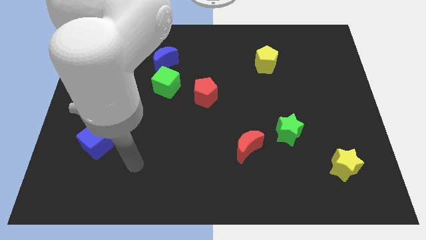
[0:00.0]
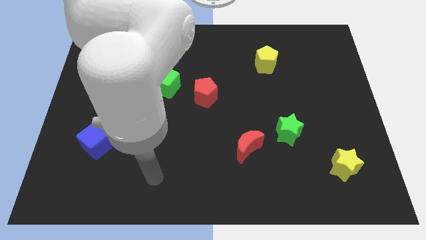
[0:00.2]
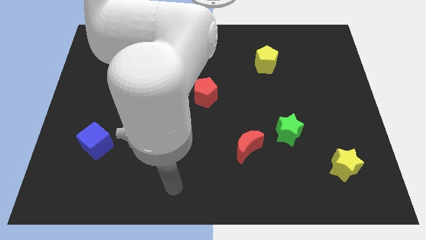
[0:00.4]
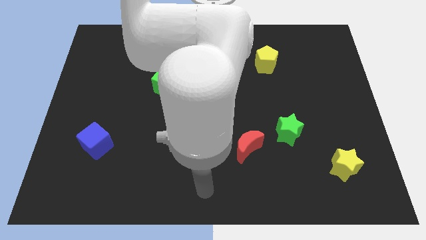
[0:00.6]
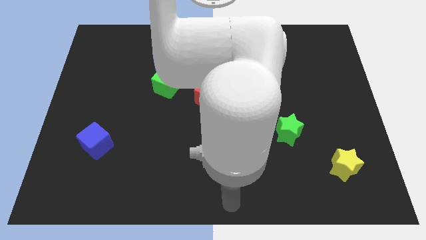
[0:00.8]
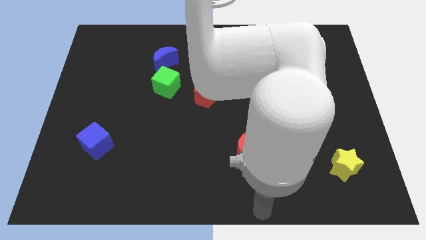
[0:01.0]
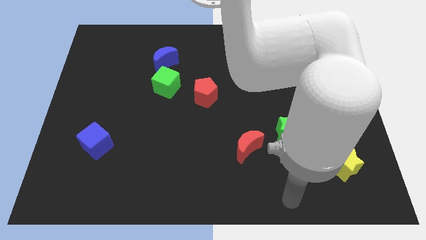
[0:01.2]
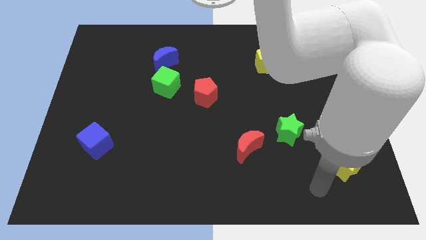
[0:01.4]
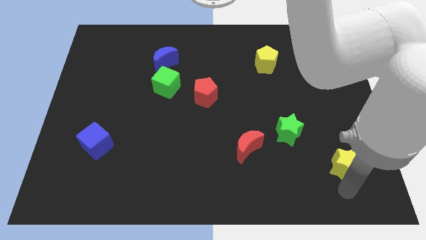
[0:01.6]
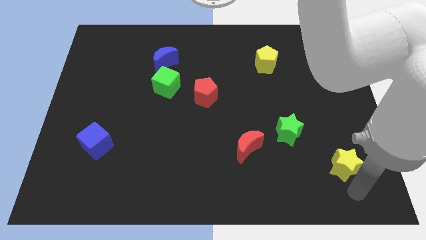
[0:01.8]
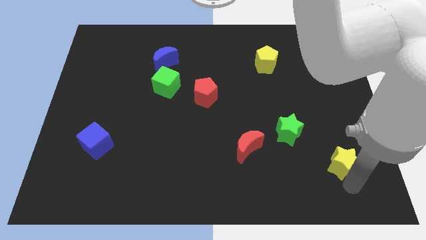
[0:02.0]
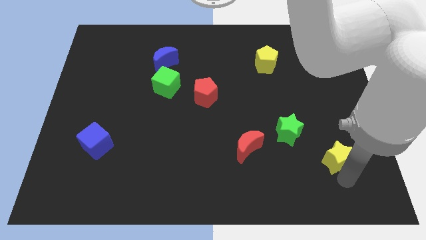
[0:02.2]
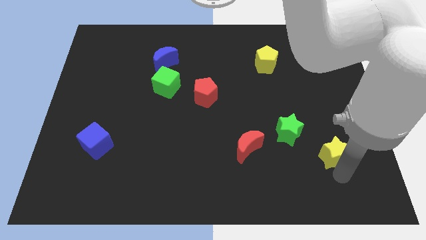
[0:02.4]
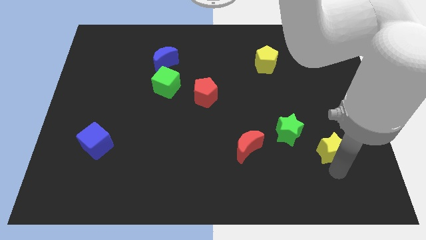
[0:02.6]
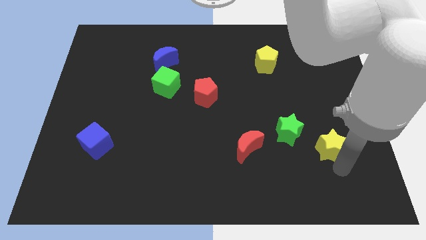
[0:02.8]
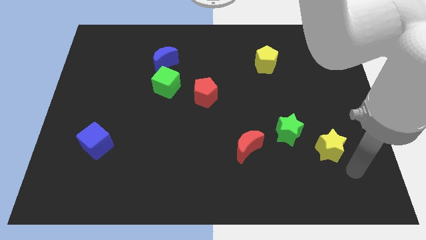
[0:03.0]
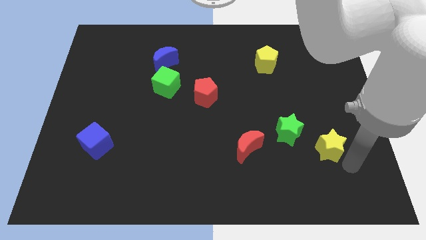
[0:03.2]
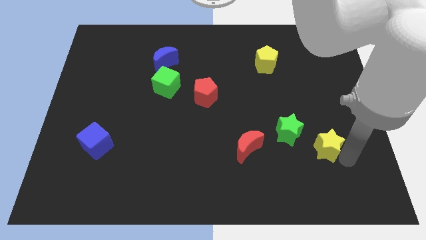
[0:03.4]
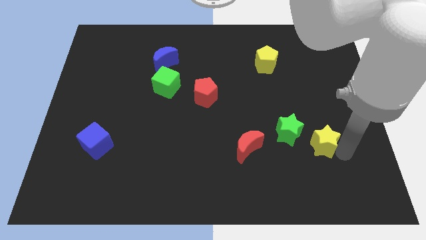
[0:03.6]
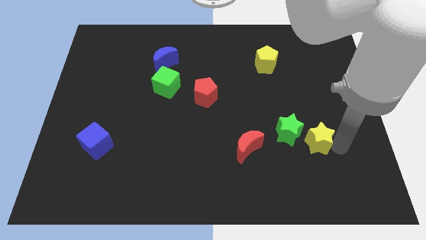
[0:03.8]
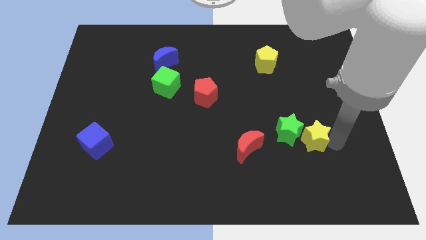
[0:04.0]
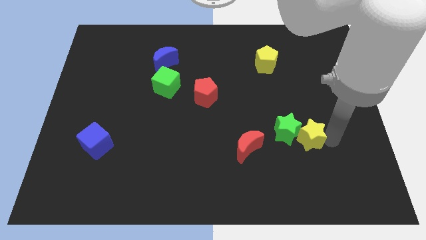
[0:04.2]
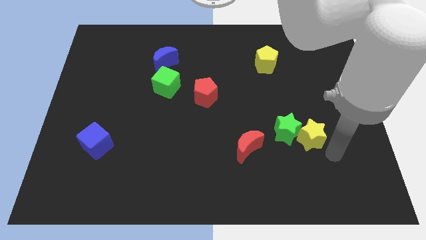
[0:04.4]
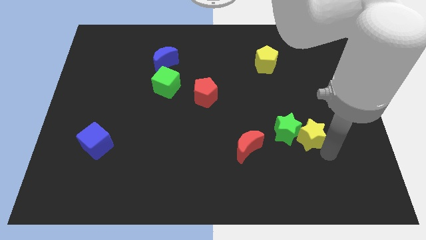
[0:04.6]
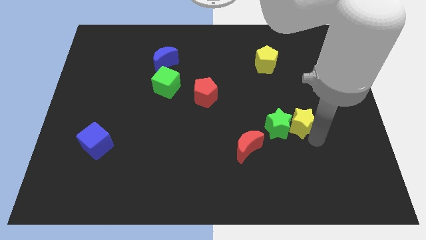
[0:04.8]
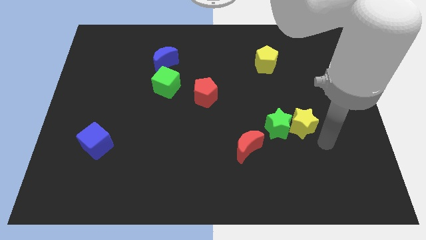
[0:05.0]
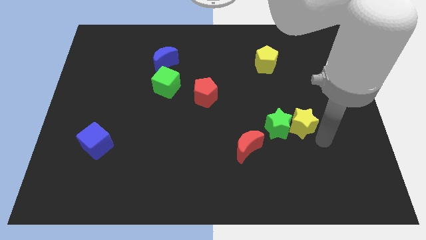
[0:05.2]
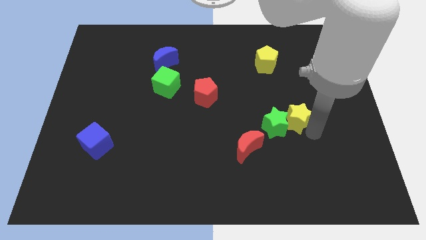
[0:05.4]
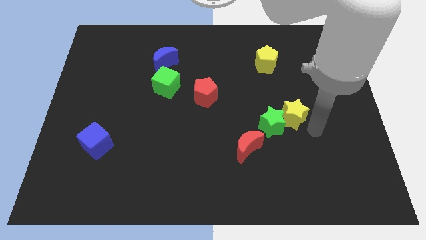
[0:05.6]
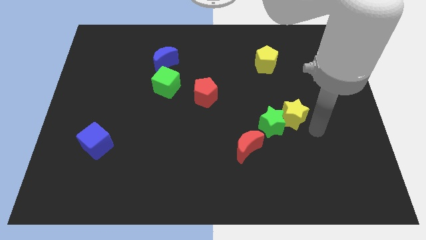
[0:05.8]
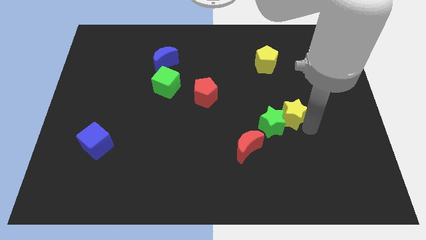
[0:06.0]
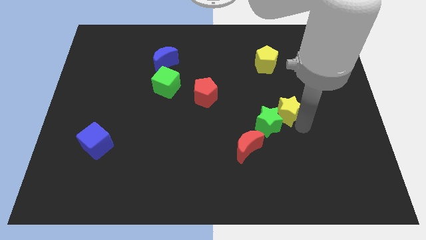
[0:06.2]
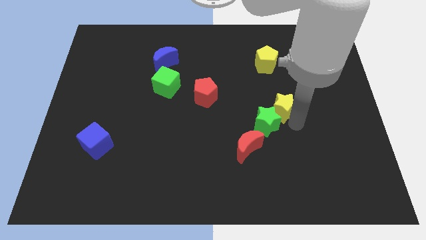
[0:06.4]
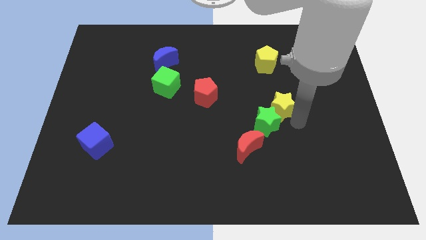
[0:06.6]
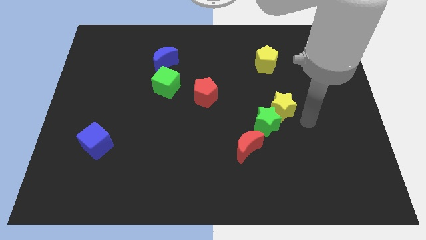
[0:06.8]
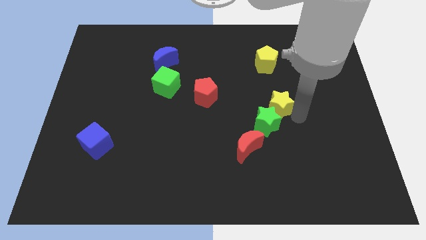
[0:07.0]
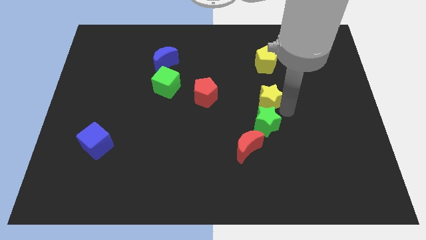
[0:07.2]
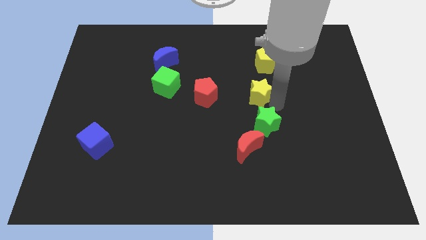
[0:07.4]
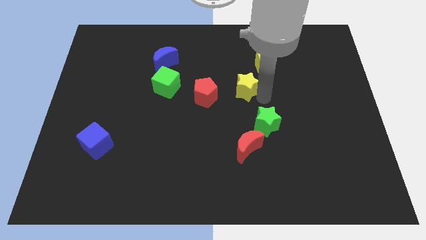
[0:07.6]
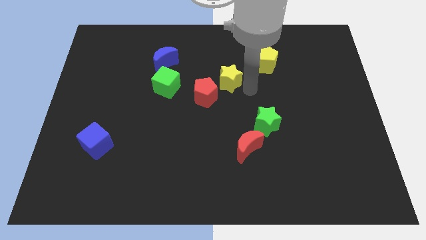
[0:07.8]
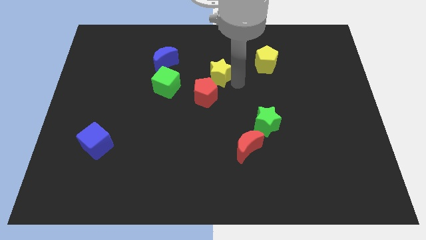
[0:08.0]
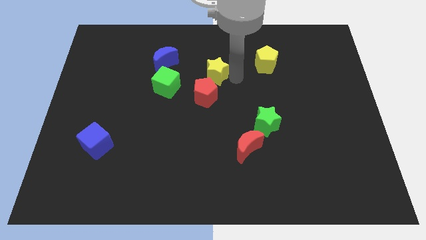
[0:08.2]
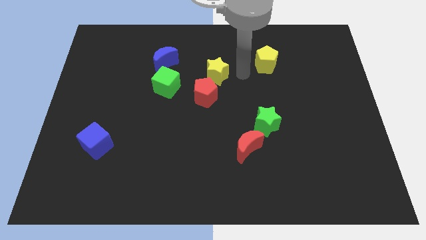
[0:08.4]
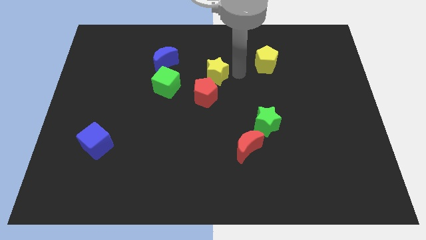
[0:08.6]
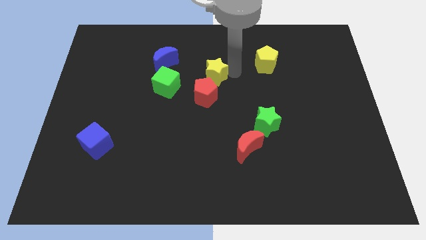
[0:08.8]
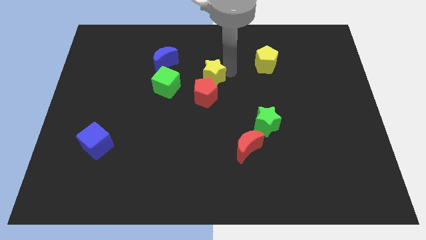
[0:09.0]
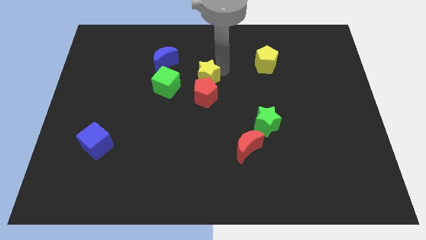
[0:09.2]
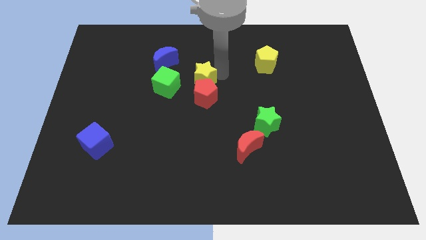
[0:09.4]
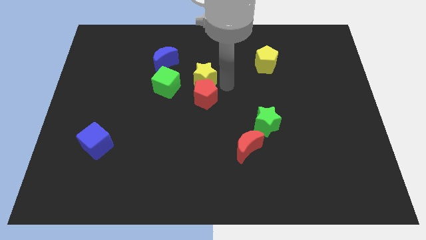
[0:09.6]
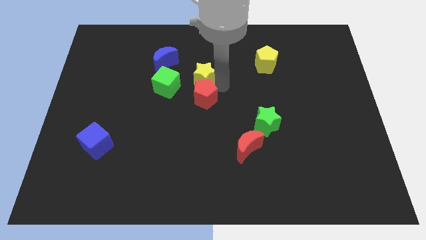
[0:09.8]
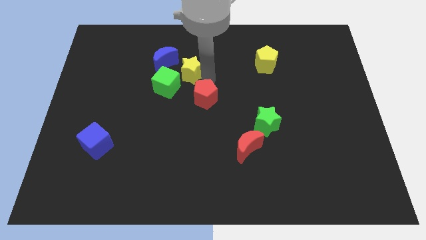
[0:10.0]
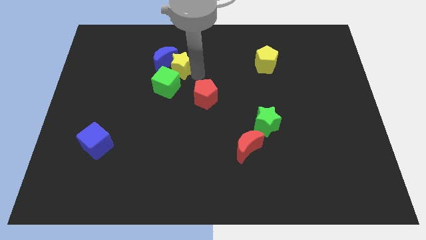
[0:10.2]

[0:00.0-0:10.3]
slide the yellow star to the blue moon

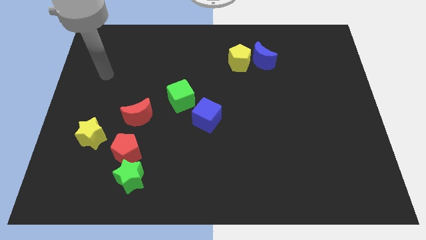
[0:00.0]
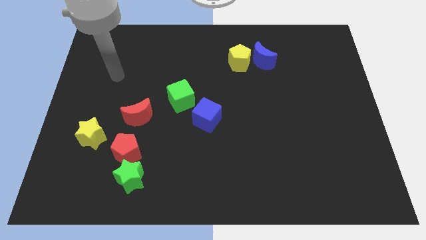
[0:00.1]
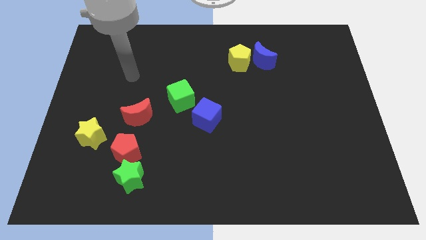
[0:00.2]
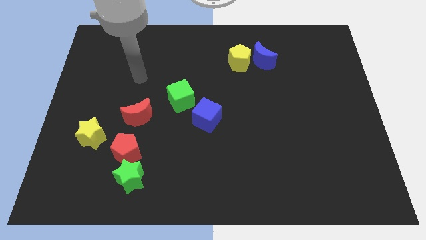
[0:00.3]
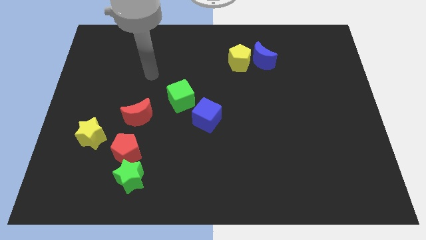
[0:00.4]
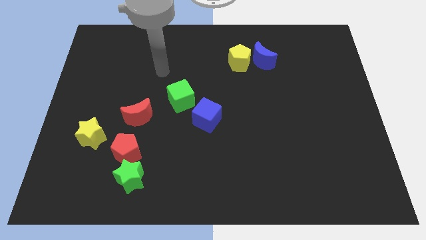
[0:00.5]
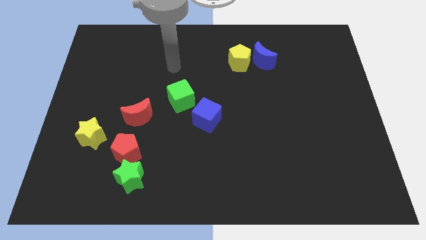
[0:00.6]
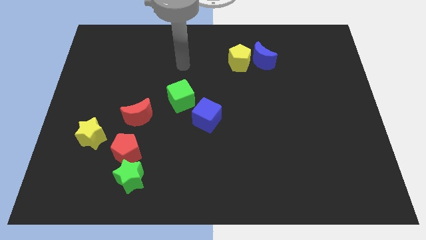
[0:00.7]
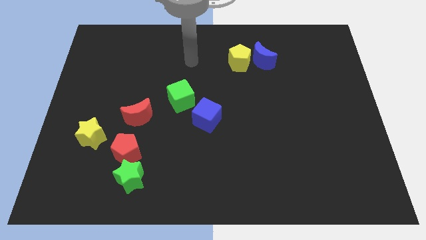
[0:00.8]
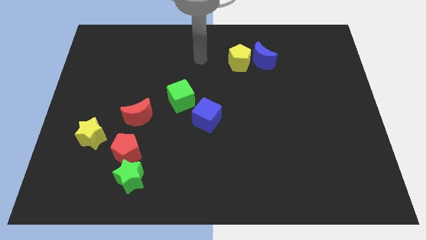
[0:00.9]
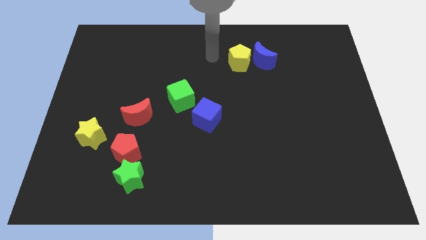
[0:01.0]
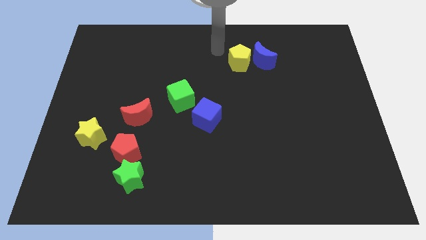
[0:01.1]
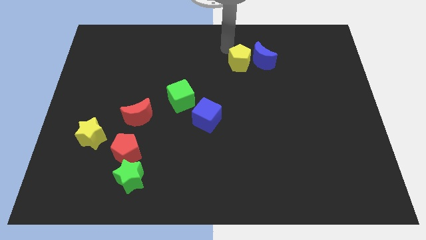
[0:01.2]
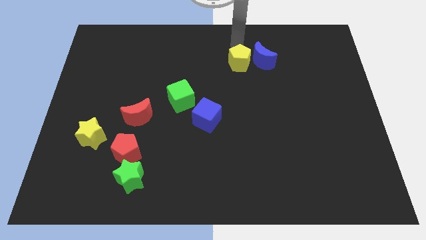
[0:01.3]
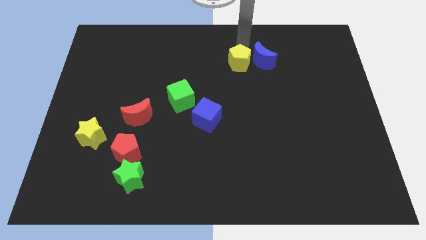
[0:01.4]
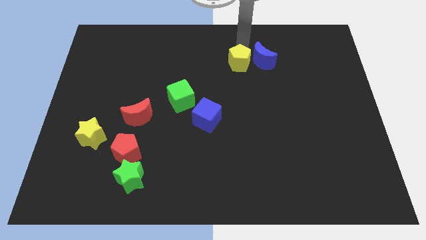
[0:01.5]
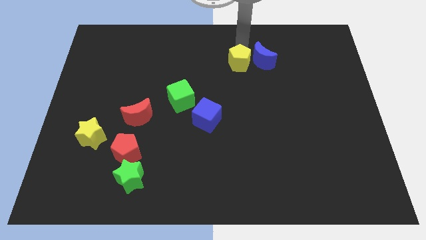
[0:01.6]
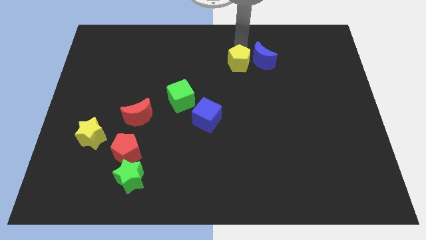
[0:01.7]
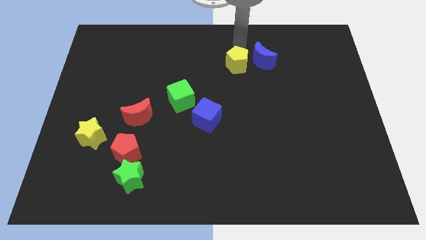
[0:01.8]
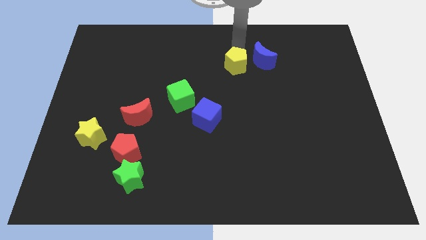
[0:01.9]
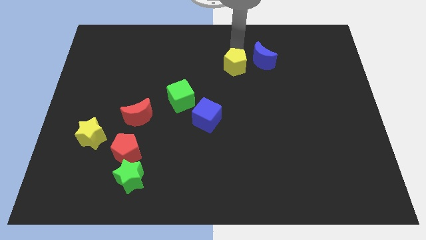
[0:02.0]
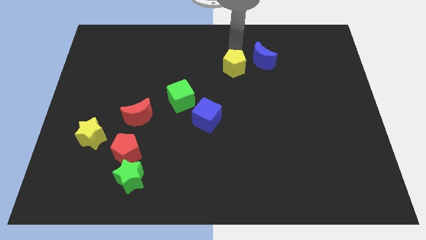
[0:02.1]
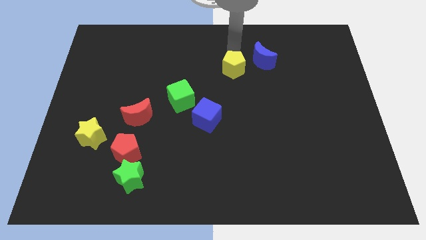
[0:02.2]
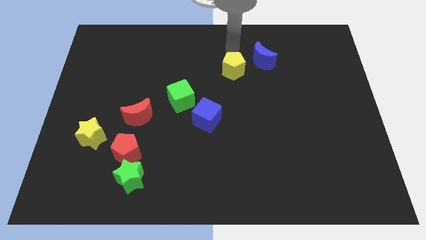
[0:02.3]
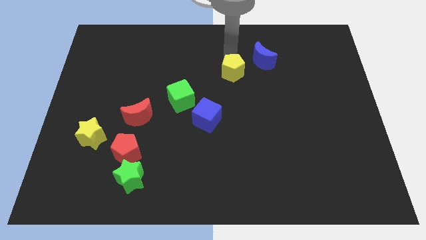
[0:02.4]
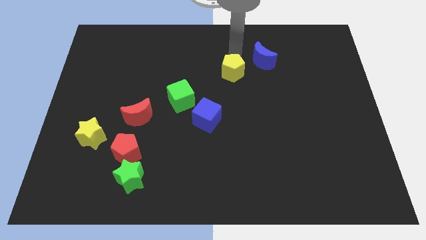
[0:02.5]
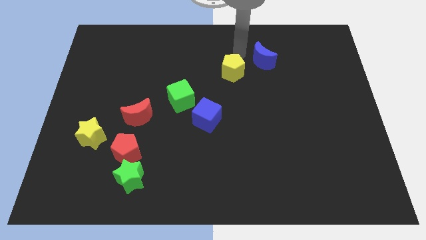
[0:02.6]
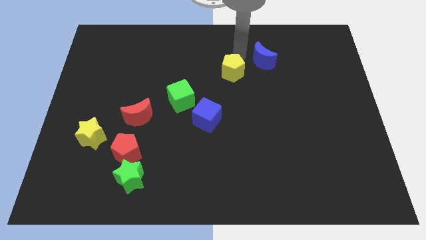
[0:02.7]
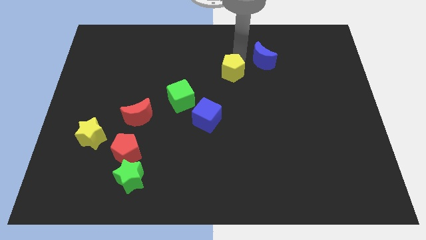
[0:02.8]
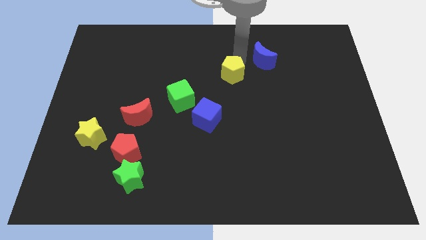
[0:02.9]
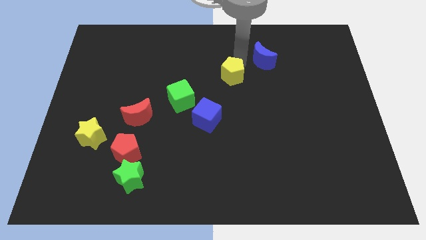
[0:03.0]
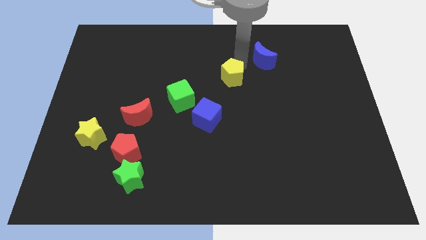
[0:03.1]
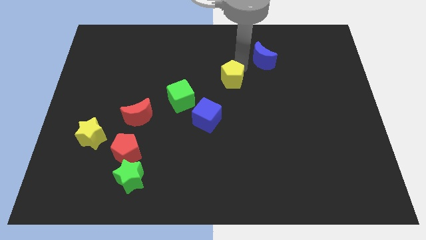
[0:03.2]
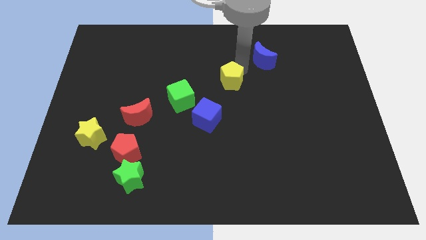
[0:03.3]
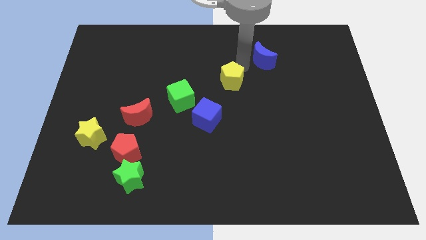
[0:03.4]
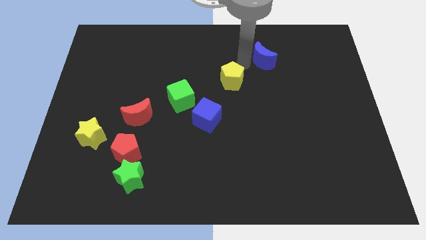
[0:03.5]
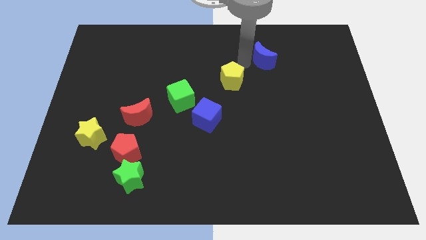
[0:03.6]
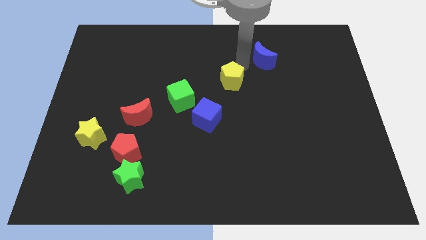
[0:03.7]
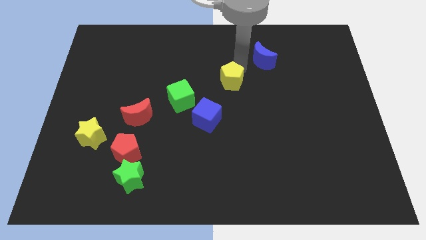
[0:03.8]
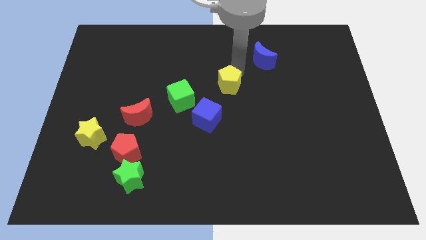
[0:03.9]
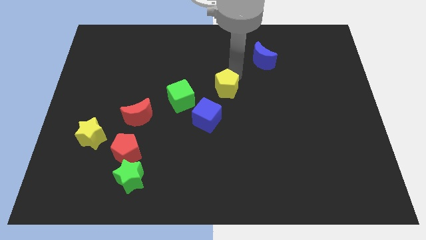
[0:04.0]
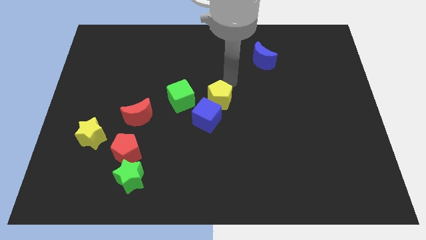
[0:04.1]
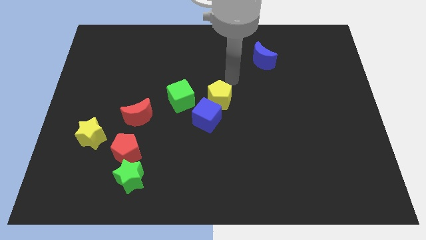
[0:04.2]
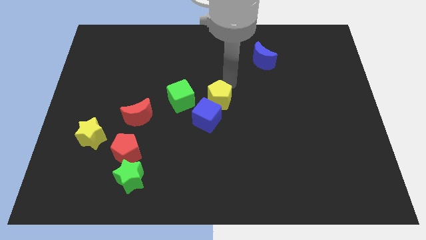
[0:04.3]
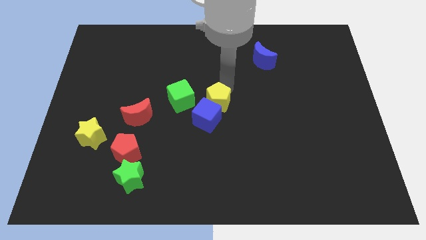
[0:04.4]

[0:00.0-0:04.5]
move the yellow pentagon to the blue cube
